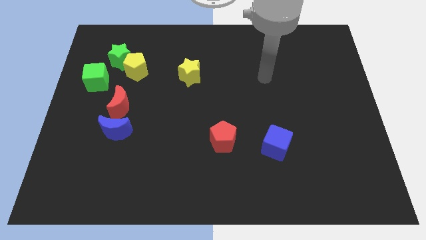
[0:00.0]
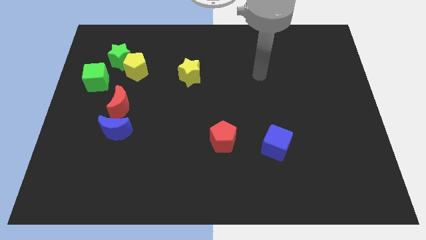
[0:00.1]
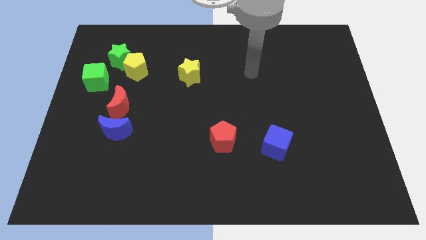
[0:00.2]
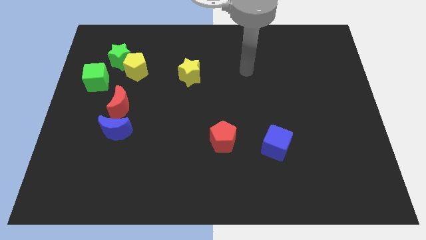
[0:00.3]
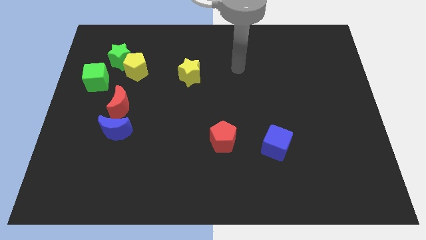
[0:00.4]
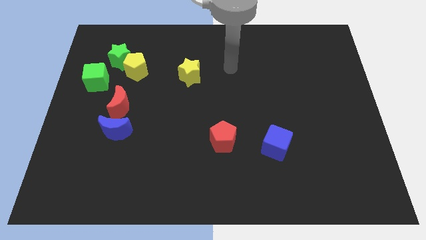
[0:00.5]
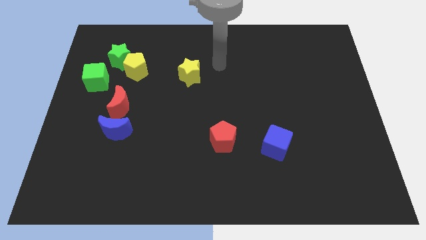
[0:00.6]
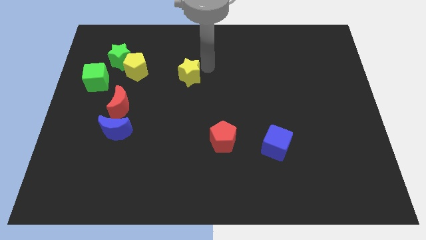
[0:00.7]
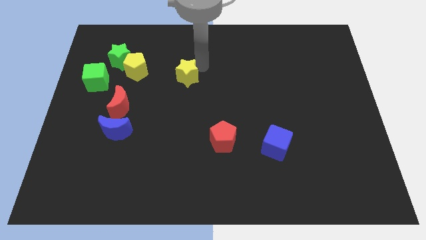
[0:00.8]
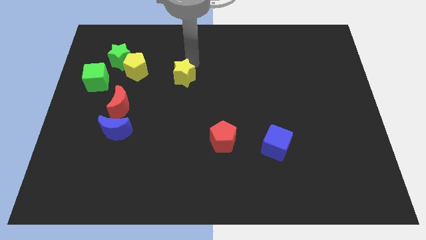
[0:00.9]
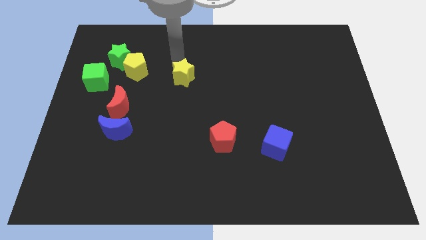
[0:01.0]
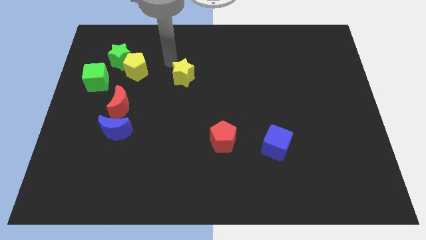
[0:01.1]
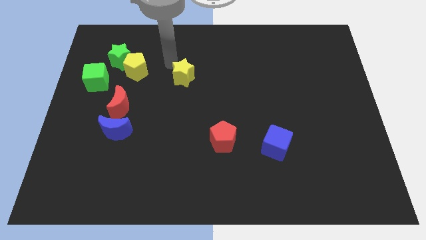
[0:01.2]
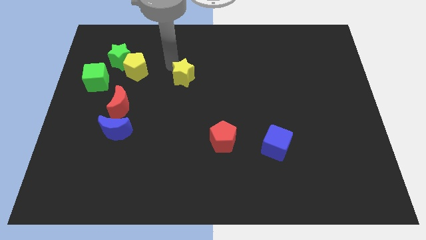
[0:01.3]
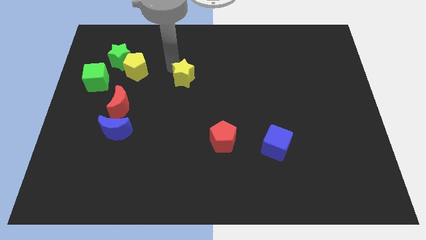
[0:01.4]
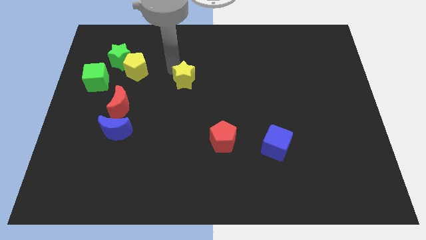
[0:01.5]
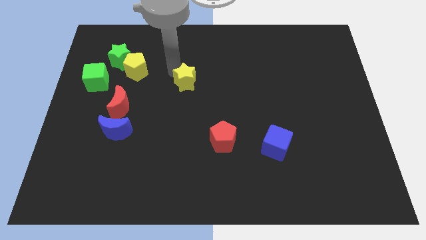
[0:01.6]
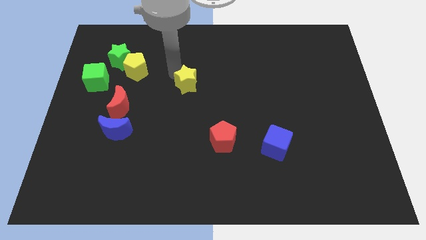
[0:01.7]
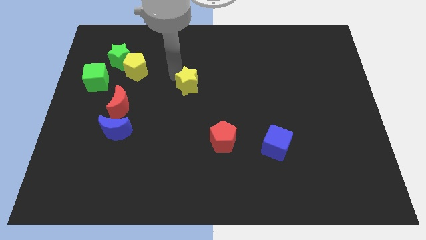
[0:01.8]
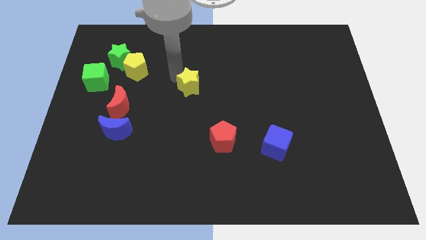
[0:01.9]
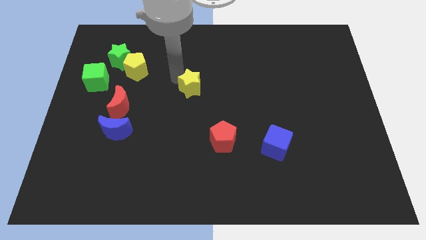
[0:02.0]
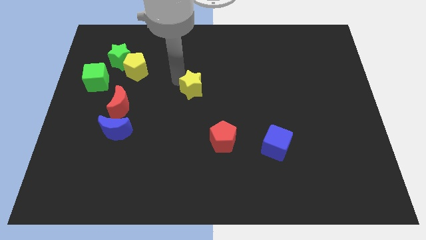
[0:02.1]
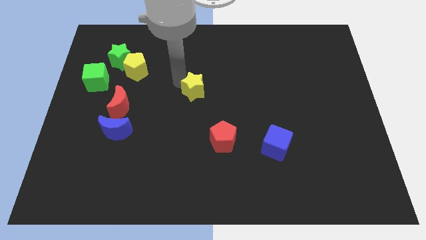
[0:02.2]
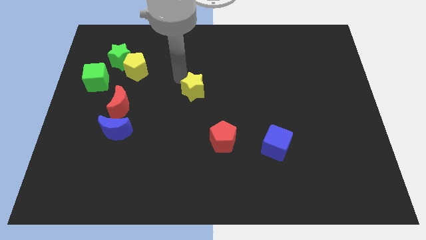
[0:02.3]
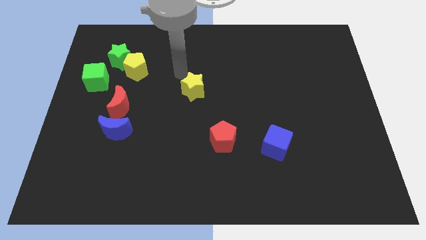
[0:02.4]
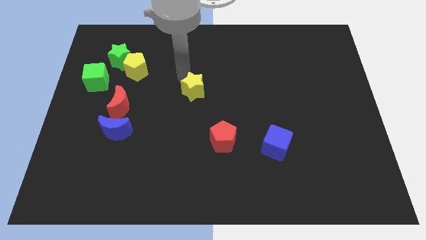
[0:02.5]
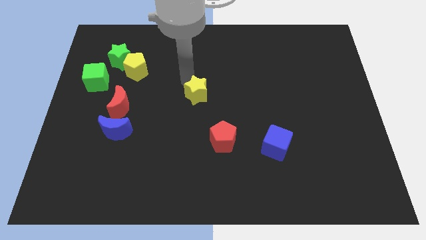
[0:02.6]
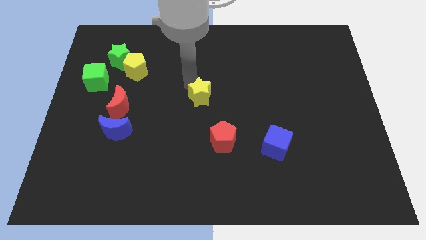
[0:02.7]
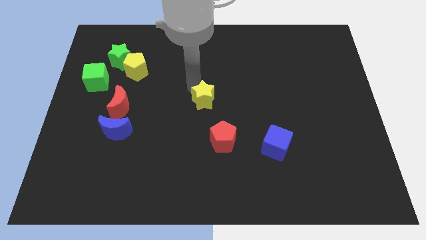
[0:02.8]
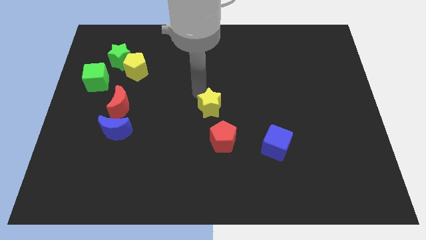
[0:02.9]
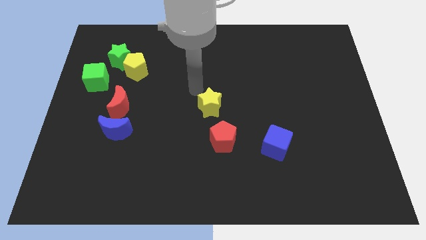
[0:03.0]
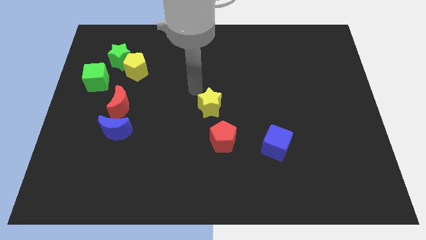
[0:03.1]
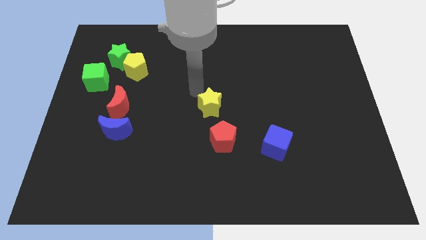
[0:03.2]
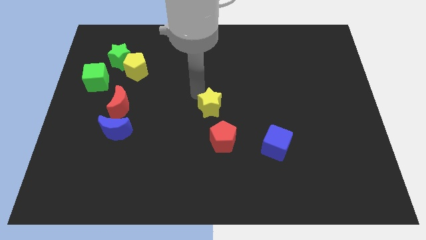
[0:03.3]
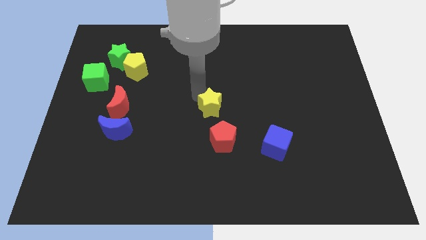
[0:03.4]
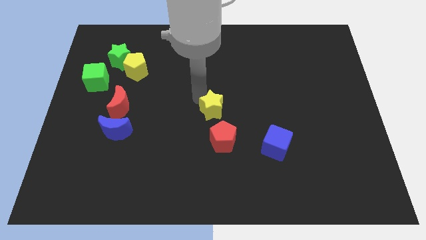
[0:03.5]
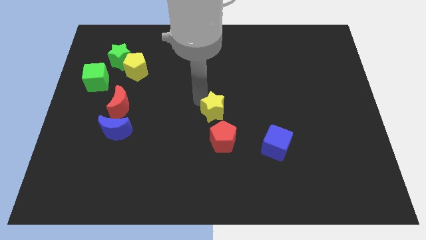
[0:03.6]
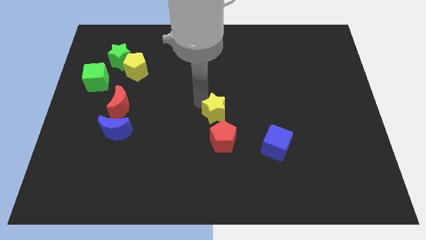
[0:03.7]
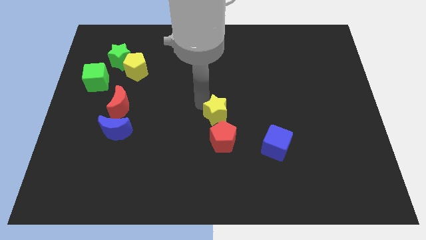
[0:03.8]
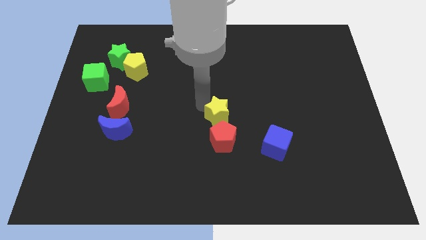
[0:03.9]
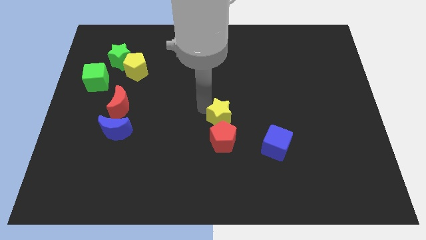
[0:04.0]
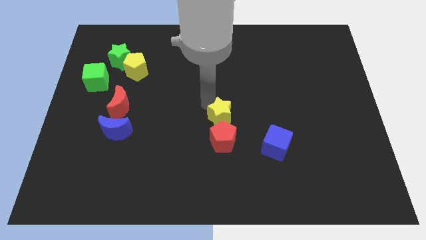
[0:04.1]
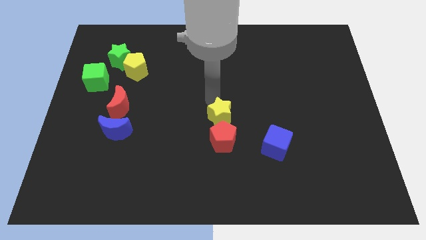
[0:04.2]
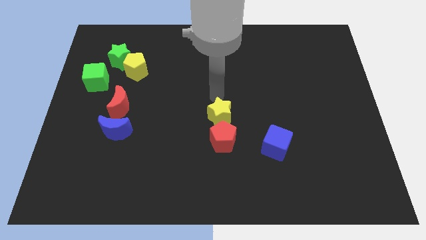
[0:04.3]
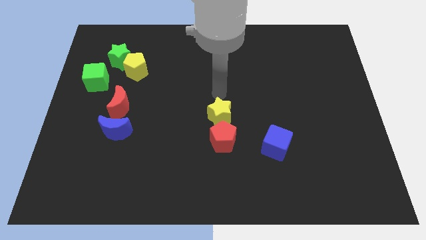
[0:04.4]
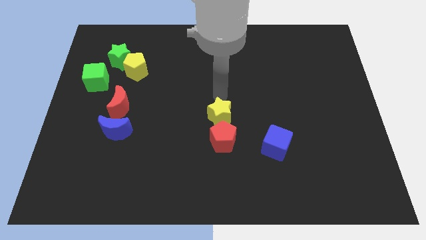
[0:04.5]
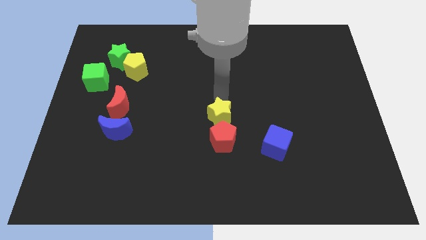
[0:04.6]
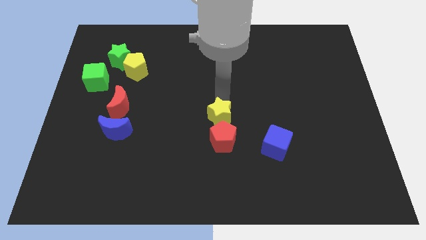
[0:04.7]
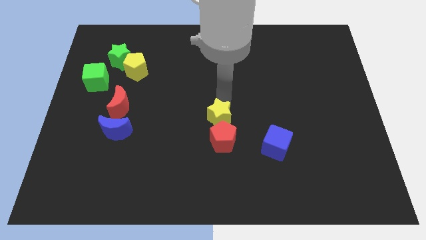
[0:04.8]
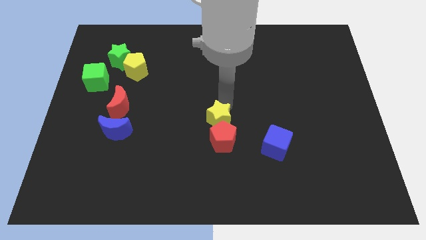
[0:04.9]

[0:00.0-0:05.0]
push the yellow star towards the red pentagon

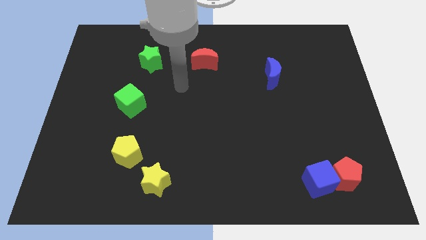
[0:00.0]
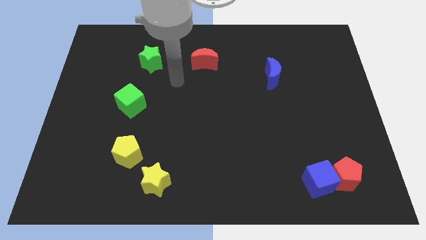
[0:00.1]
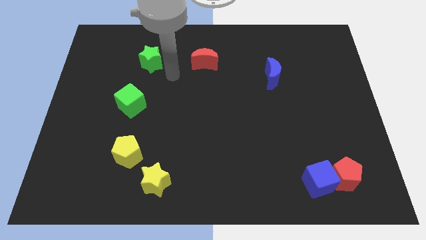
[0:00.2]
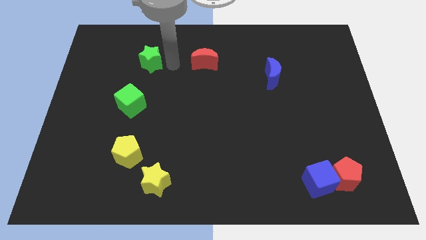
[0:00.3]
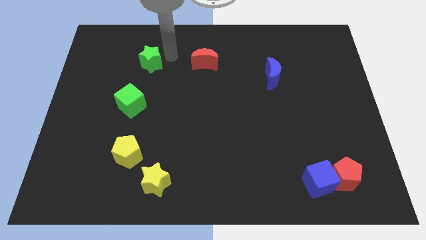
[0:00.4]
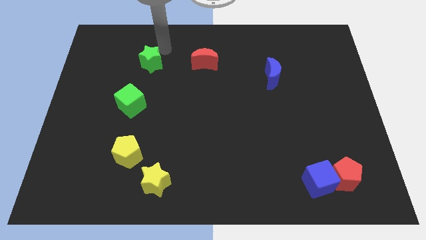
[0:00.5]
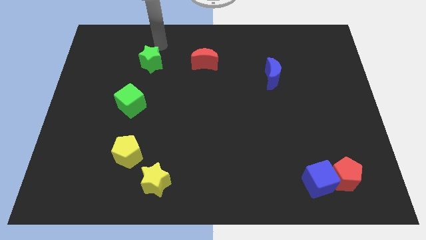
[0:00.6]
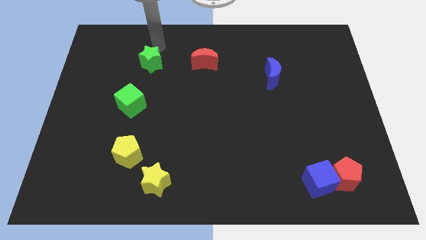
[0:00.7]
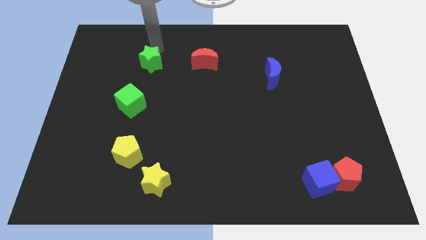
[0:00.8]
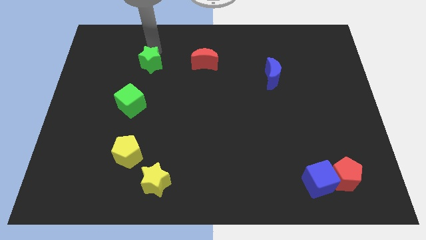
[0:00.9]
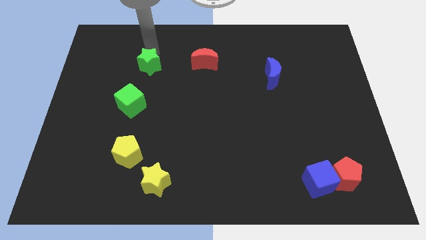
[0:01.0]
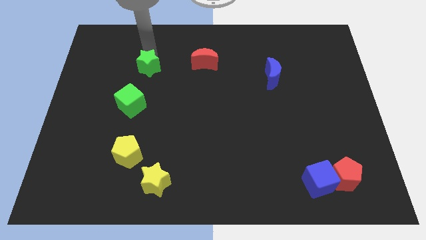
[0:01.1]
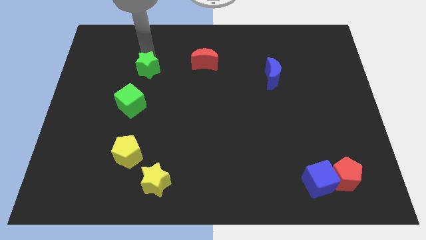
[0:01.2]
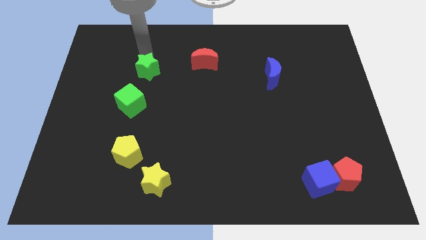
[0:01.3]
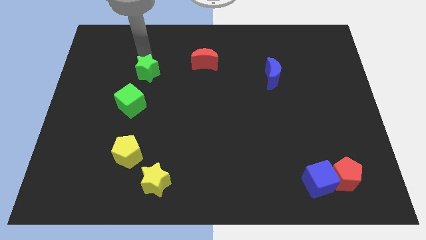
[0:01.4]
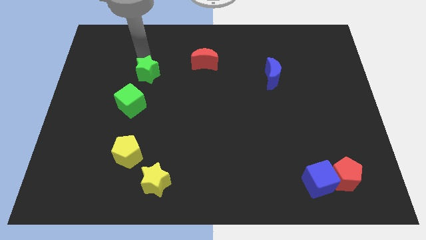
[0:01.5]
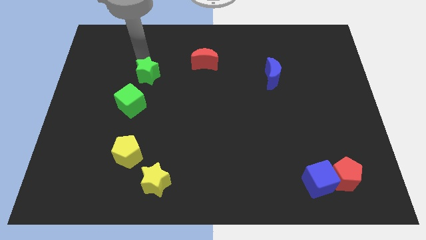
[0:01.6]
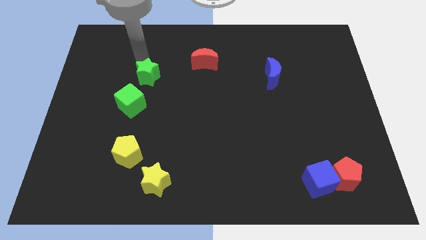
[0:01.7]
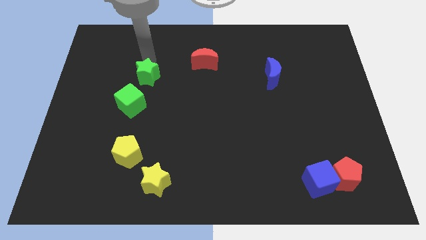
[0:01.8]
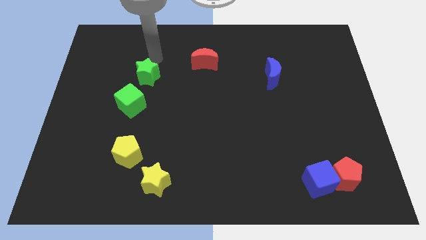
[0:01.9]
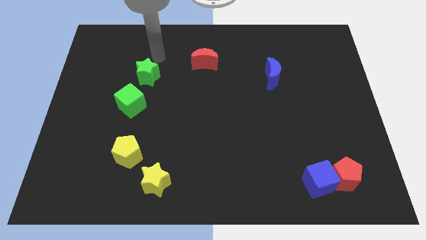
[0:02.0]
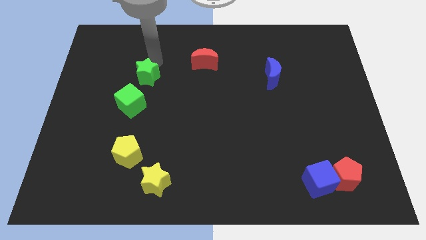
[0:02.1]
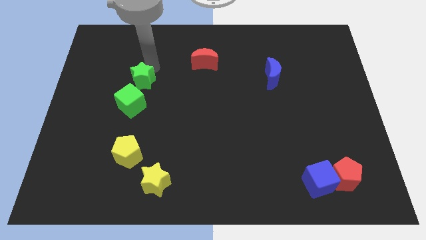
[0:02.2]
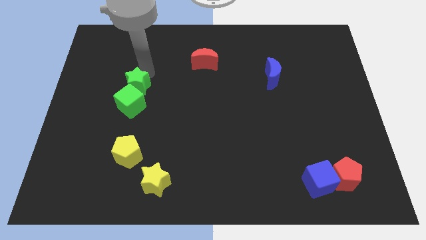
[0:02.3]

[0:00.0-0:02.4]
push the green star next to the green cube

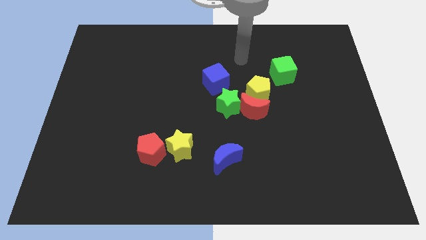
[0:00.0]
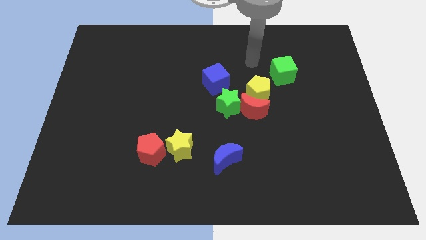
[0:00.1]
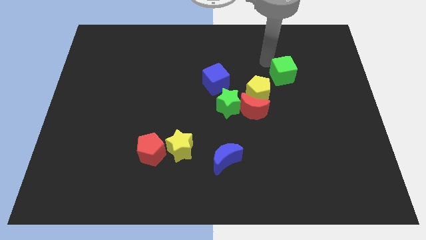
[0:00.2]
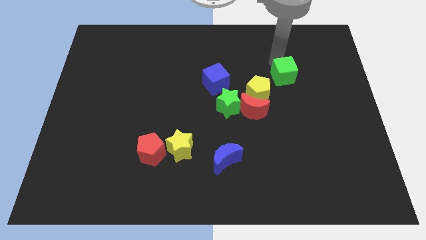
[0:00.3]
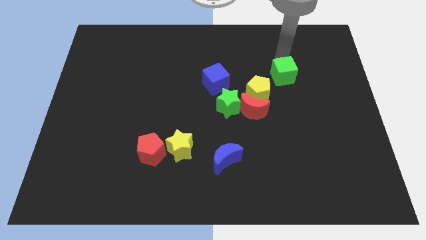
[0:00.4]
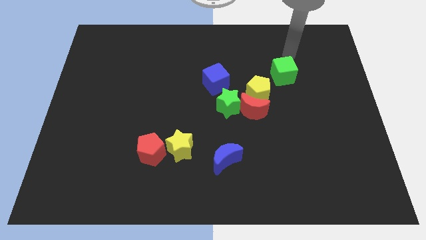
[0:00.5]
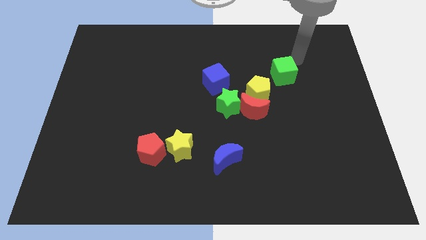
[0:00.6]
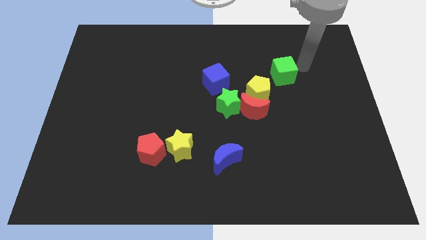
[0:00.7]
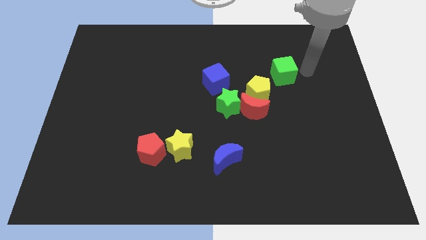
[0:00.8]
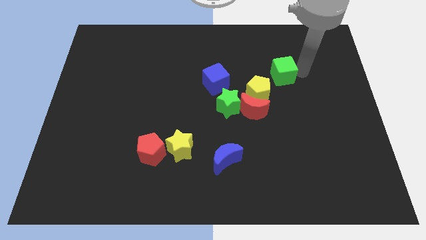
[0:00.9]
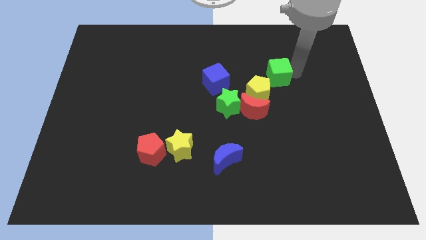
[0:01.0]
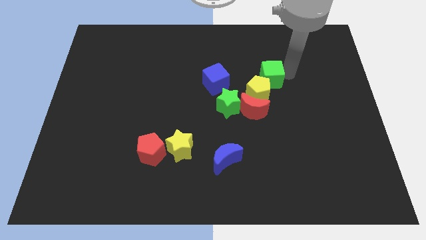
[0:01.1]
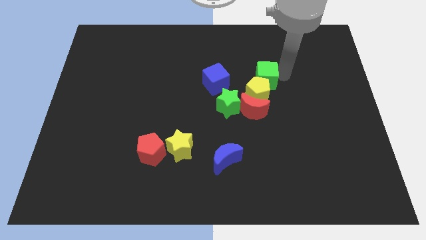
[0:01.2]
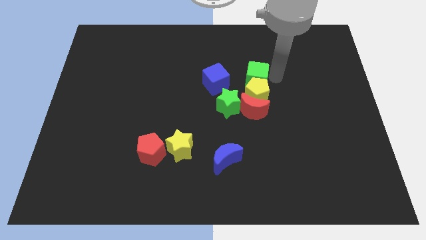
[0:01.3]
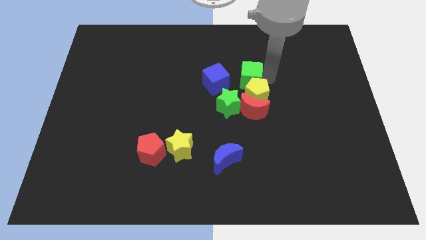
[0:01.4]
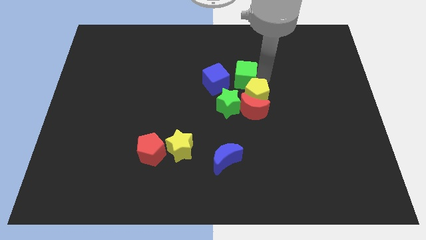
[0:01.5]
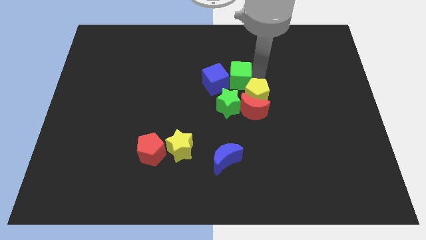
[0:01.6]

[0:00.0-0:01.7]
put the green cube towards the blue cube
